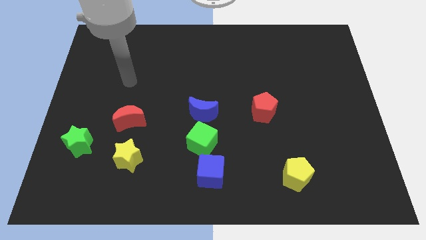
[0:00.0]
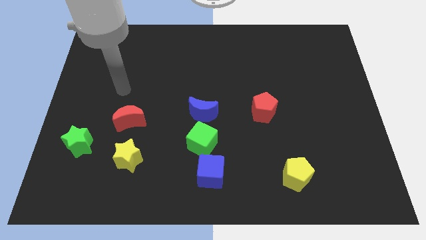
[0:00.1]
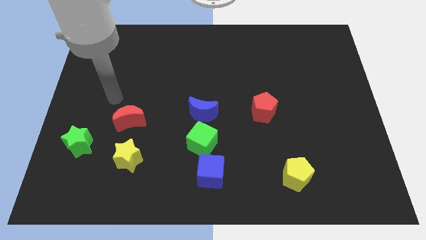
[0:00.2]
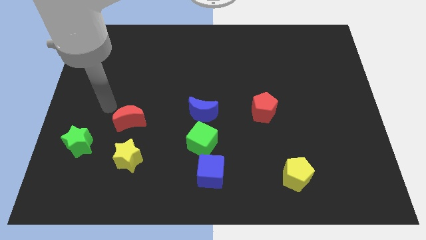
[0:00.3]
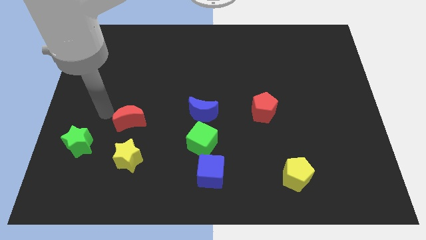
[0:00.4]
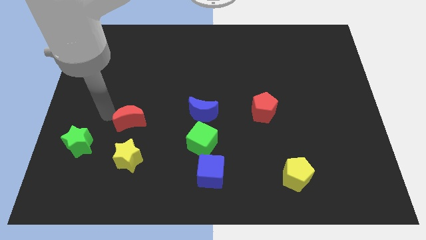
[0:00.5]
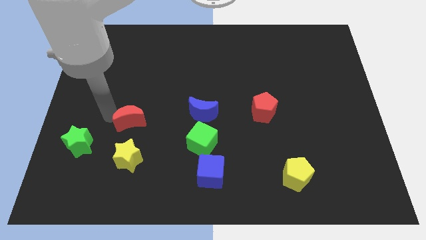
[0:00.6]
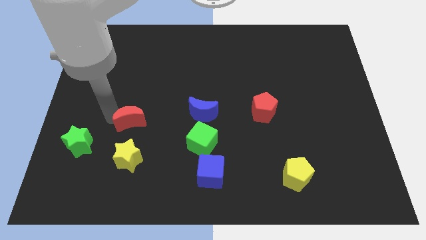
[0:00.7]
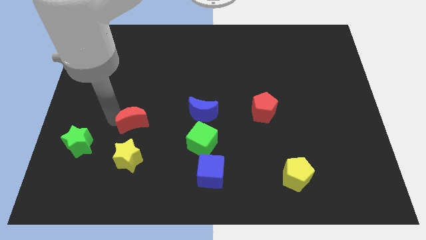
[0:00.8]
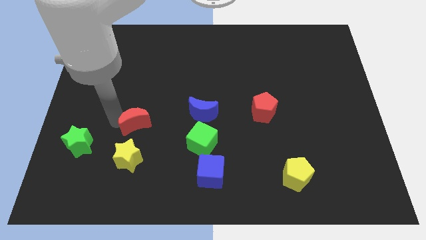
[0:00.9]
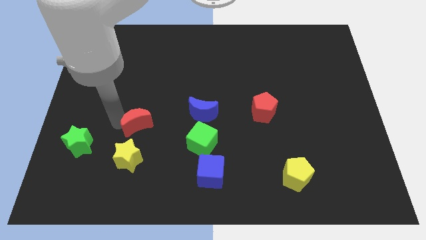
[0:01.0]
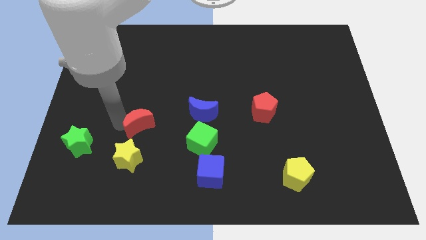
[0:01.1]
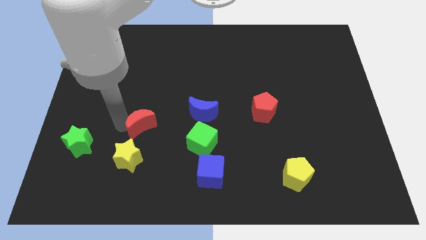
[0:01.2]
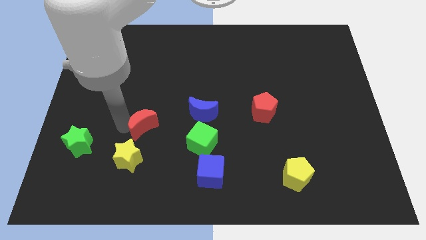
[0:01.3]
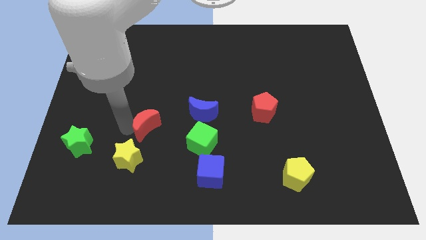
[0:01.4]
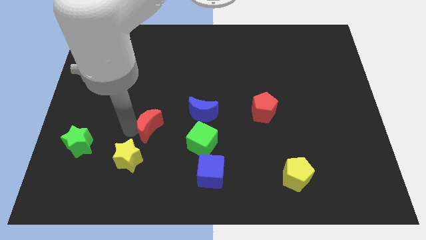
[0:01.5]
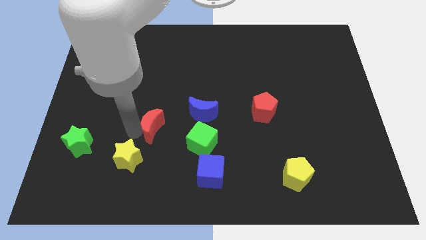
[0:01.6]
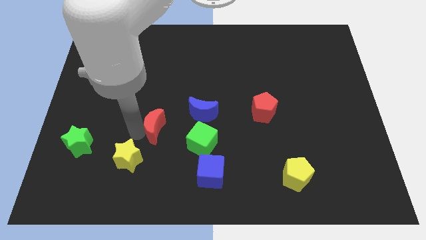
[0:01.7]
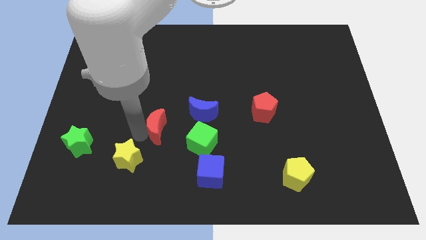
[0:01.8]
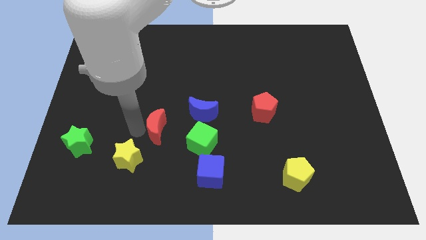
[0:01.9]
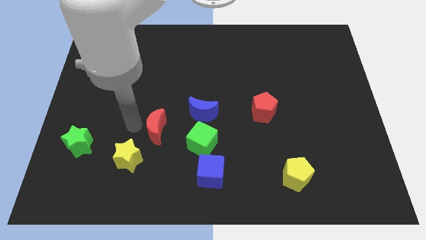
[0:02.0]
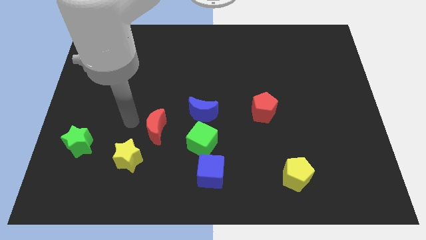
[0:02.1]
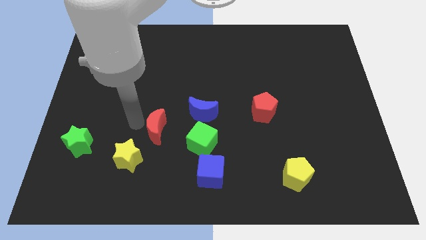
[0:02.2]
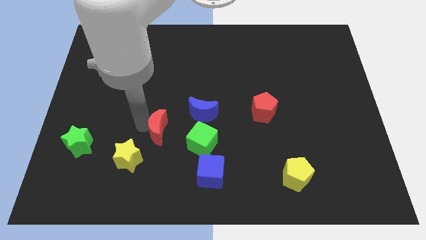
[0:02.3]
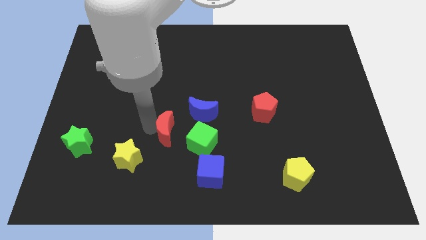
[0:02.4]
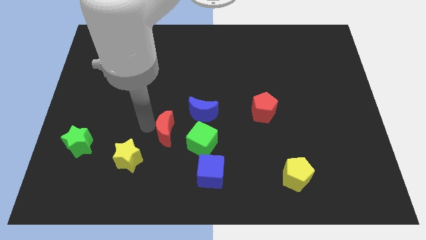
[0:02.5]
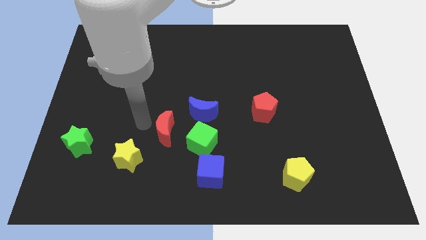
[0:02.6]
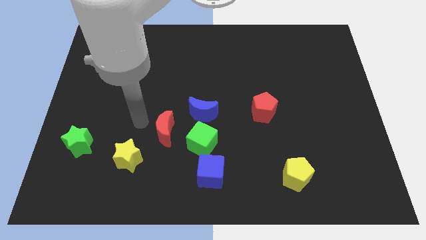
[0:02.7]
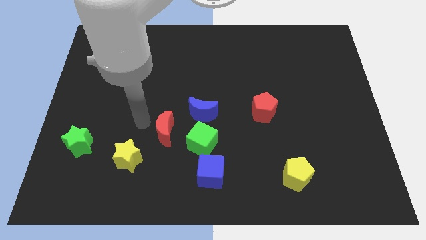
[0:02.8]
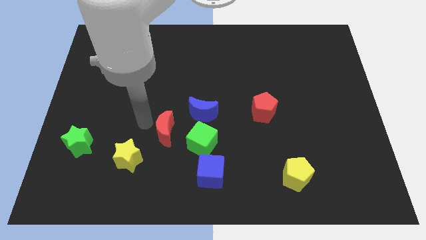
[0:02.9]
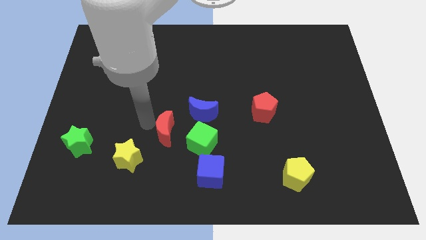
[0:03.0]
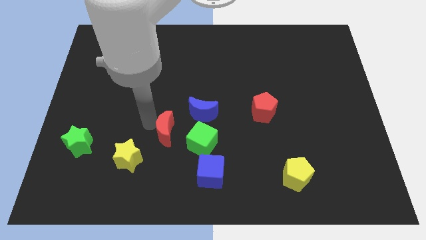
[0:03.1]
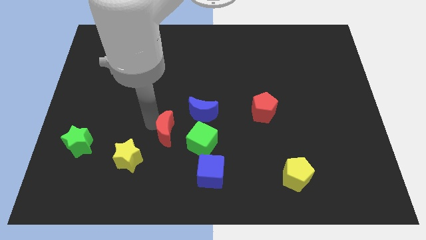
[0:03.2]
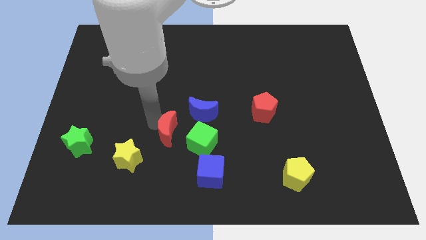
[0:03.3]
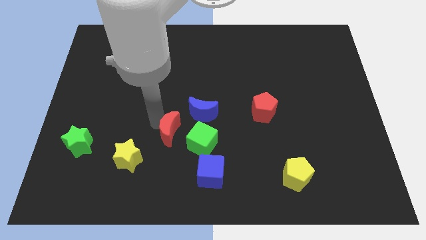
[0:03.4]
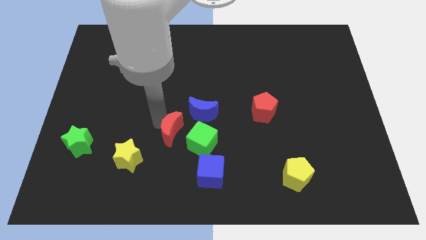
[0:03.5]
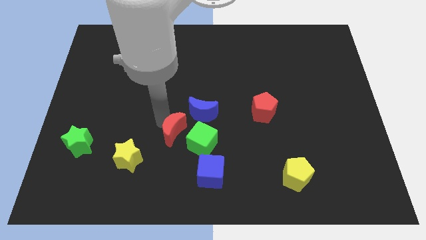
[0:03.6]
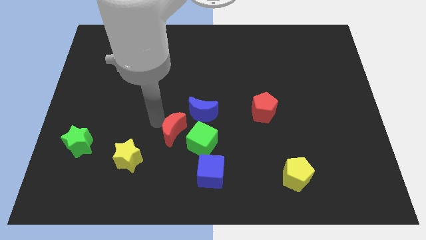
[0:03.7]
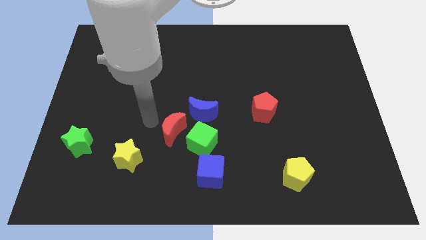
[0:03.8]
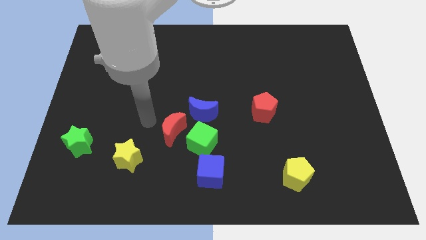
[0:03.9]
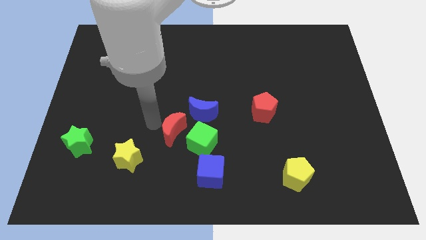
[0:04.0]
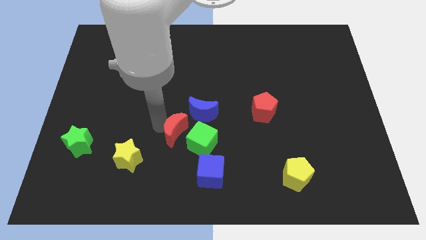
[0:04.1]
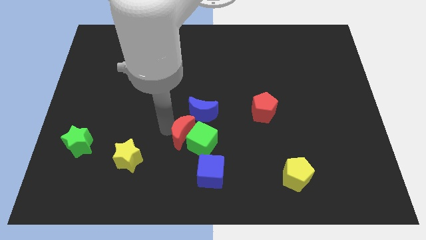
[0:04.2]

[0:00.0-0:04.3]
push the red moon towards the green cube

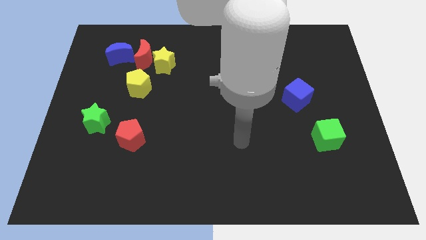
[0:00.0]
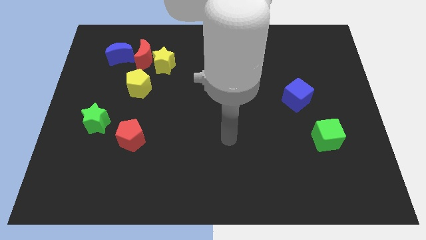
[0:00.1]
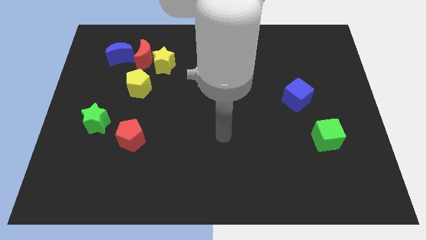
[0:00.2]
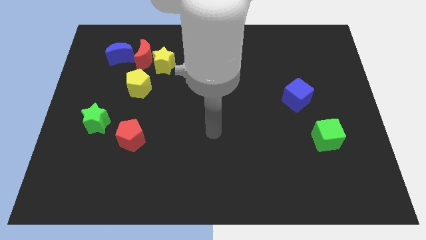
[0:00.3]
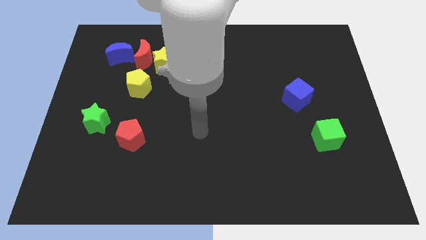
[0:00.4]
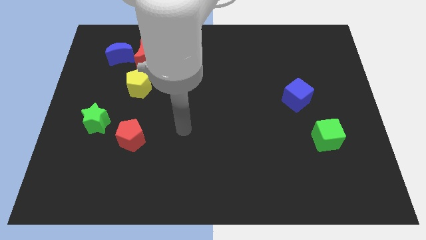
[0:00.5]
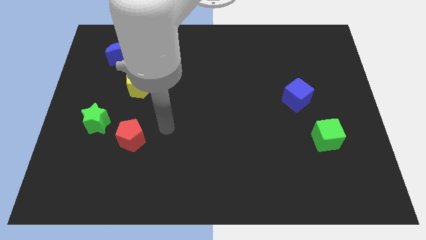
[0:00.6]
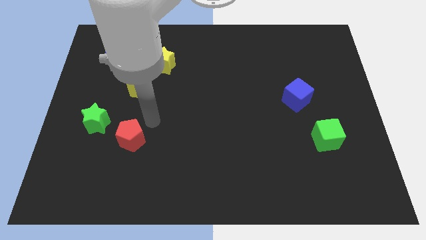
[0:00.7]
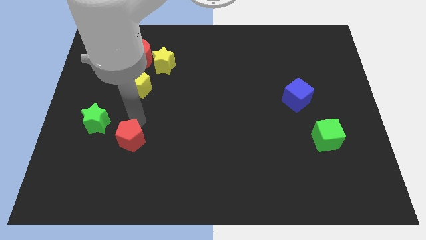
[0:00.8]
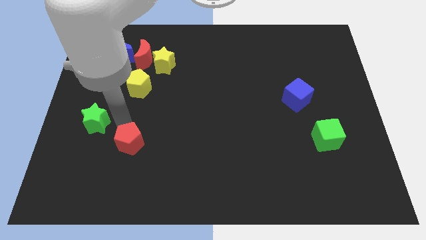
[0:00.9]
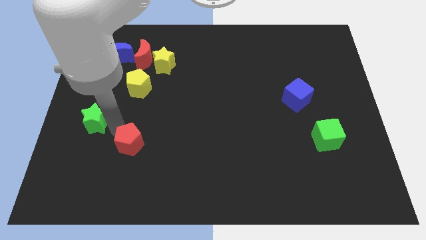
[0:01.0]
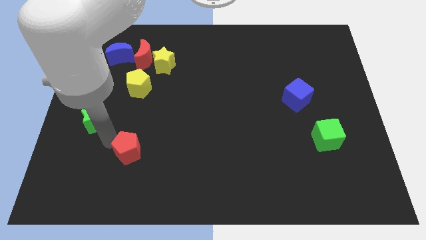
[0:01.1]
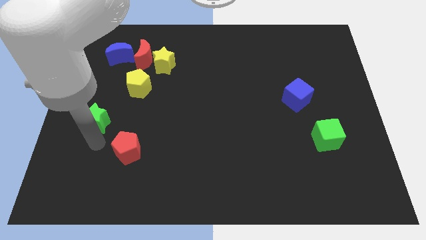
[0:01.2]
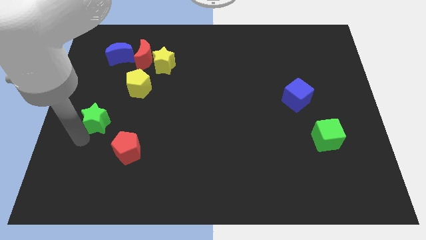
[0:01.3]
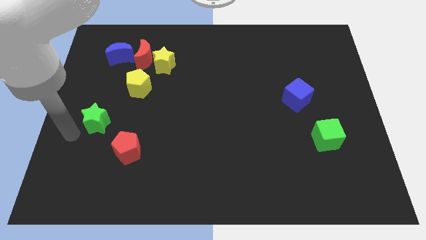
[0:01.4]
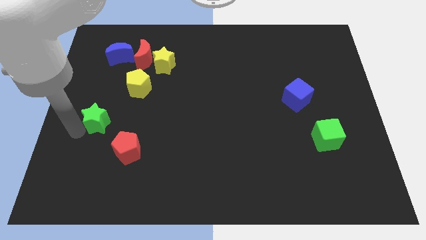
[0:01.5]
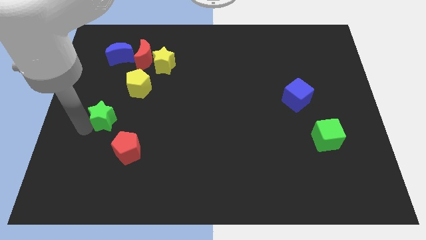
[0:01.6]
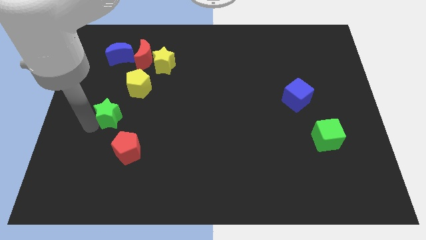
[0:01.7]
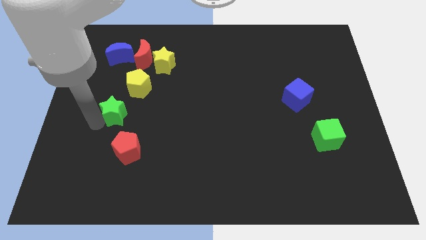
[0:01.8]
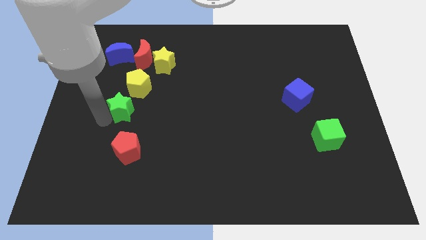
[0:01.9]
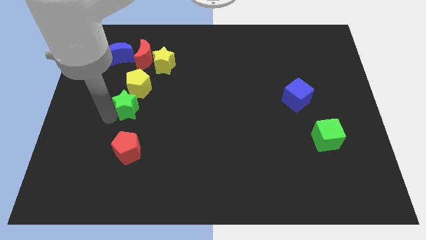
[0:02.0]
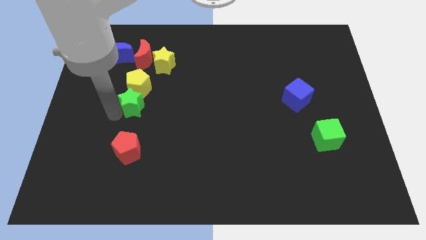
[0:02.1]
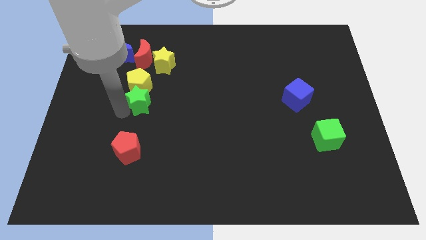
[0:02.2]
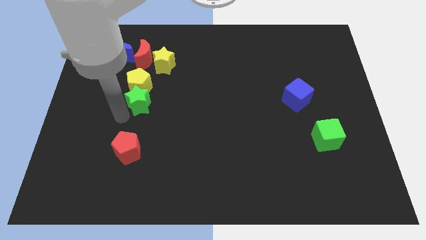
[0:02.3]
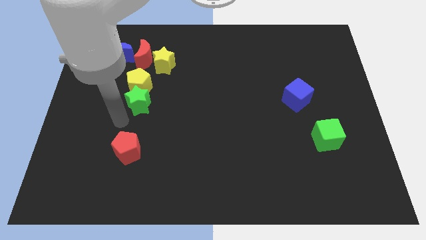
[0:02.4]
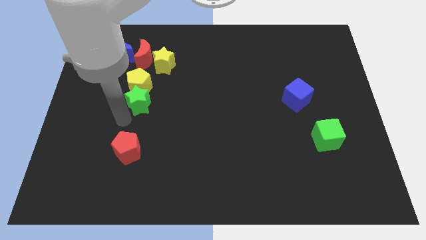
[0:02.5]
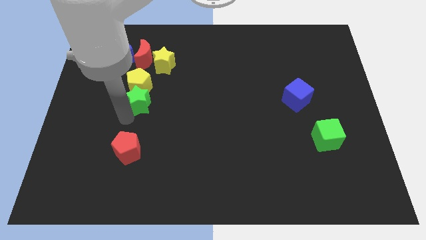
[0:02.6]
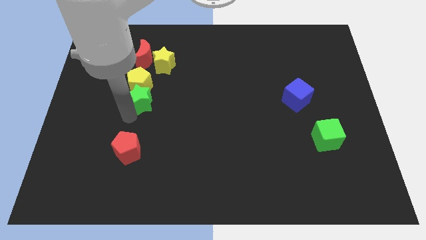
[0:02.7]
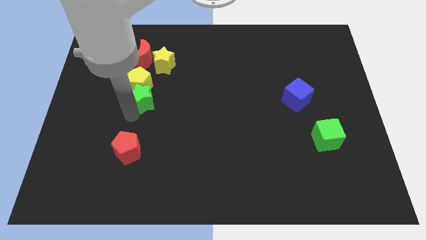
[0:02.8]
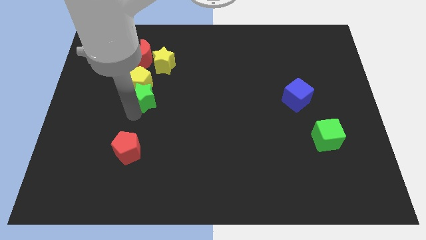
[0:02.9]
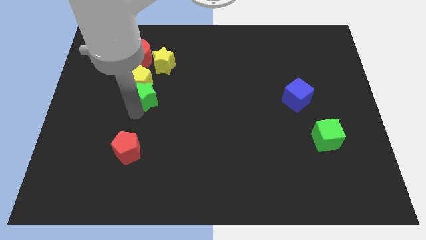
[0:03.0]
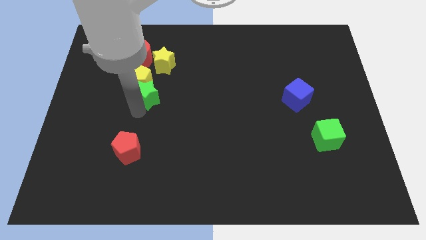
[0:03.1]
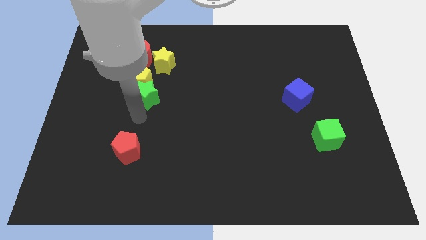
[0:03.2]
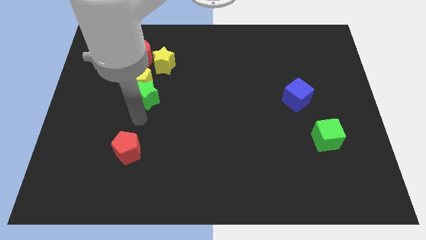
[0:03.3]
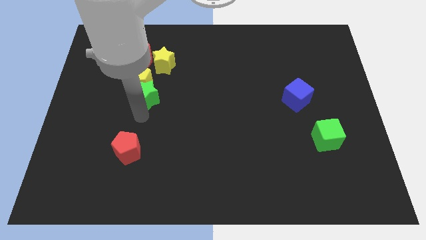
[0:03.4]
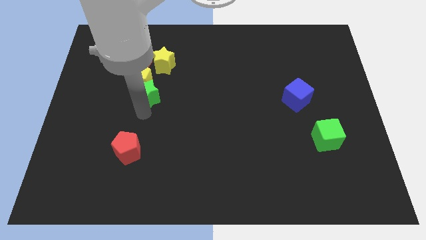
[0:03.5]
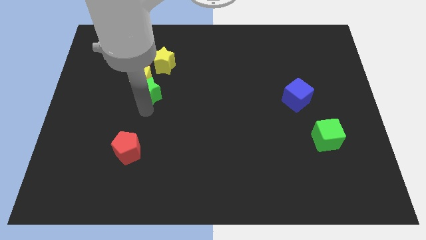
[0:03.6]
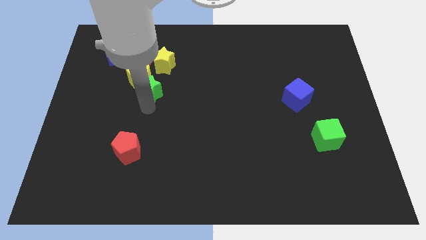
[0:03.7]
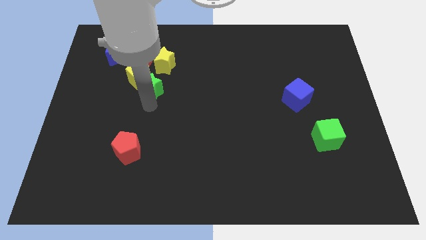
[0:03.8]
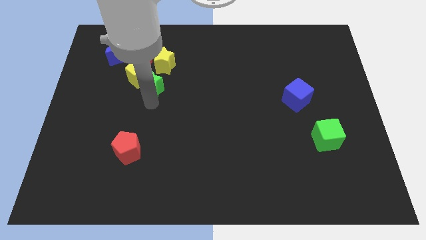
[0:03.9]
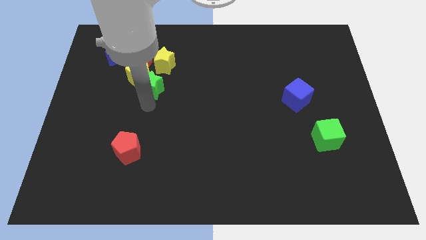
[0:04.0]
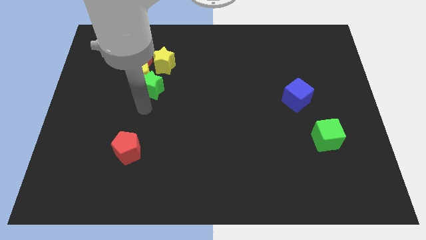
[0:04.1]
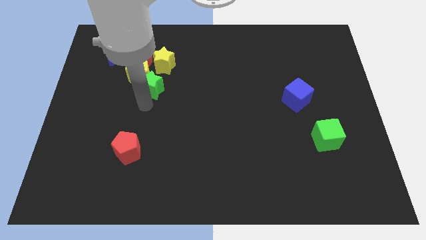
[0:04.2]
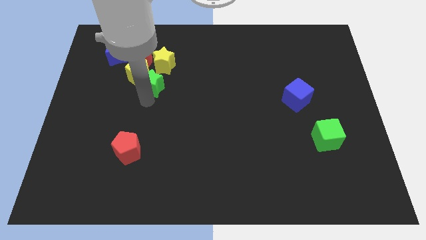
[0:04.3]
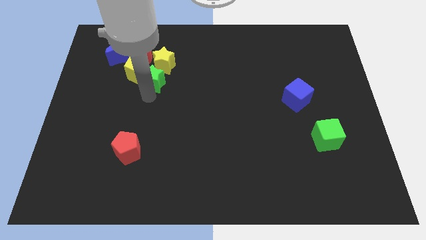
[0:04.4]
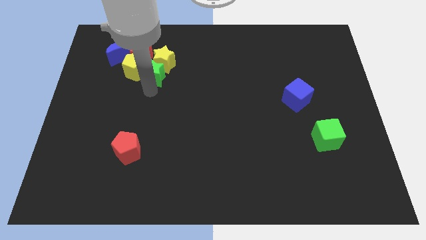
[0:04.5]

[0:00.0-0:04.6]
push the green star next to the yellow star
